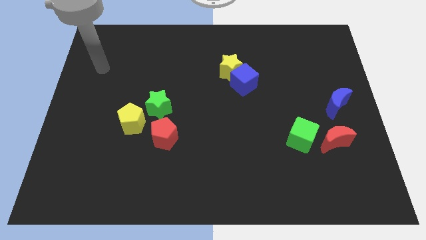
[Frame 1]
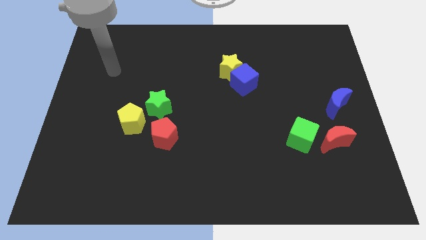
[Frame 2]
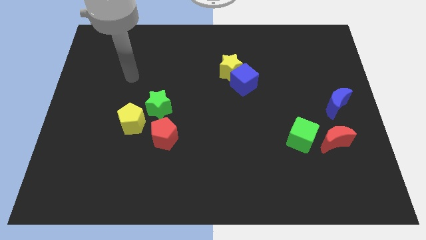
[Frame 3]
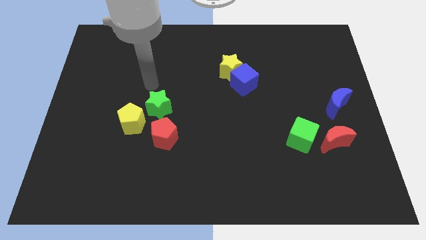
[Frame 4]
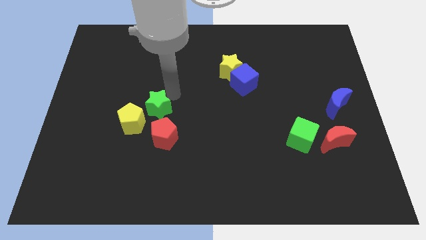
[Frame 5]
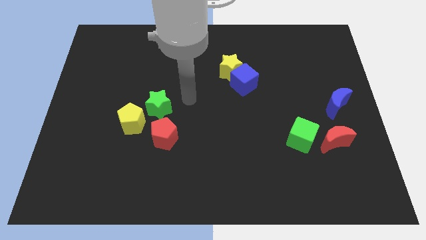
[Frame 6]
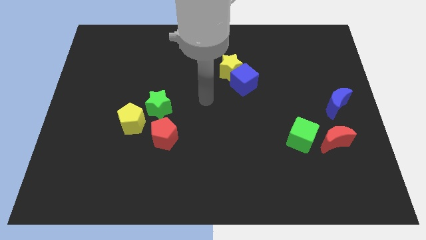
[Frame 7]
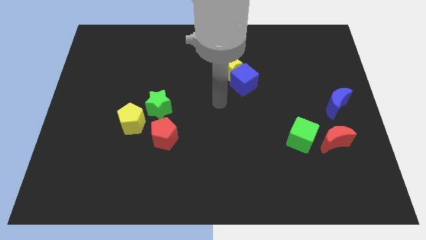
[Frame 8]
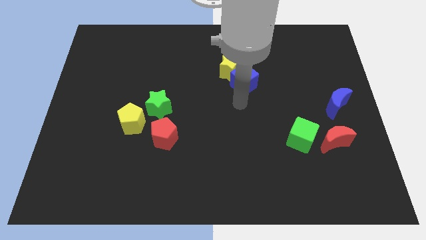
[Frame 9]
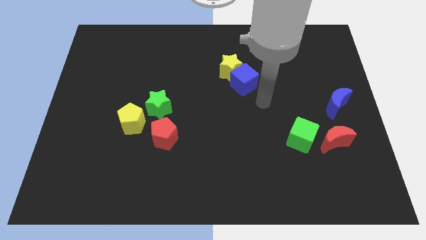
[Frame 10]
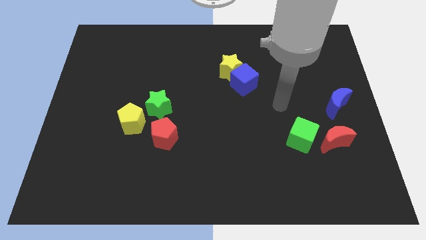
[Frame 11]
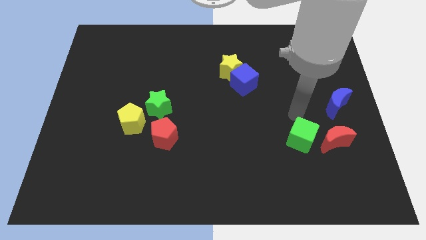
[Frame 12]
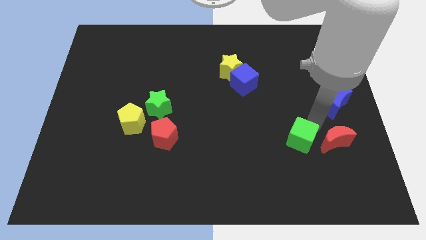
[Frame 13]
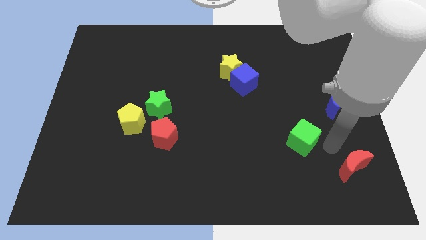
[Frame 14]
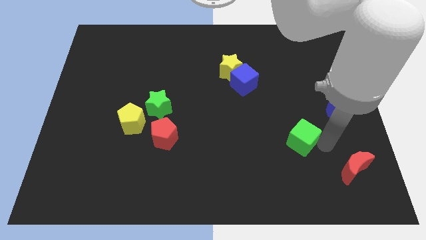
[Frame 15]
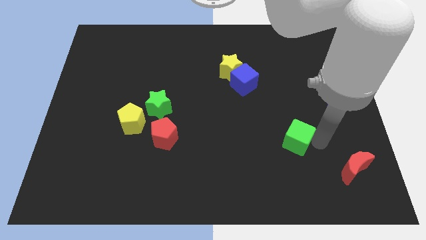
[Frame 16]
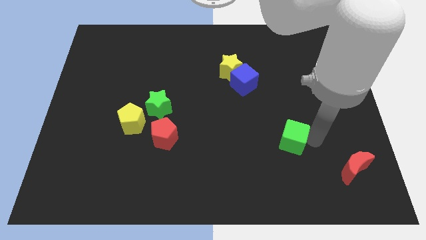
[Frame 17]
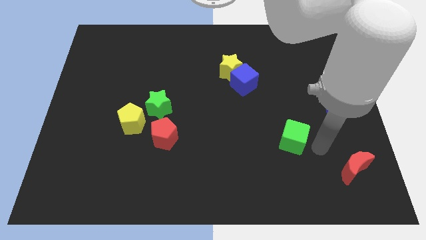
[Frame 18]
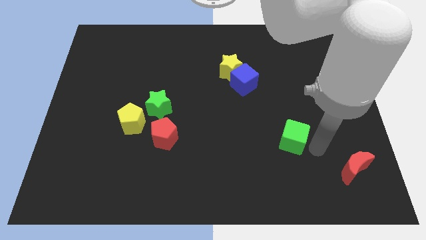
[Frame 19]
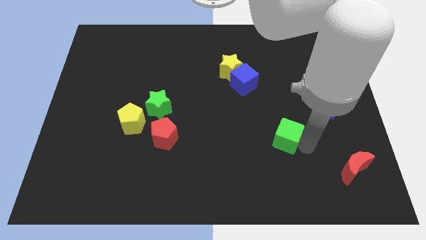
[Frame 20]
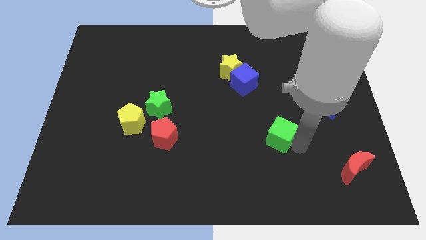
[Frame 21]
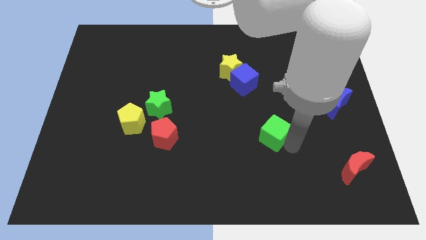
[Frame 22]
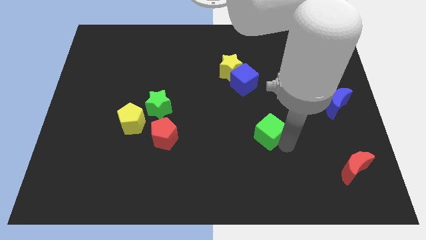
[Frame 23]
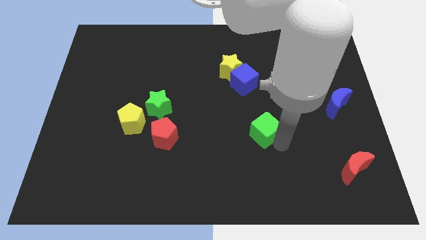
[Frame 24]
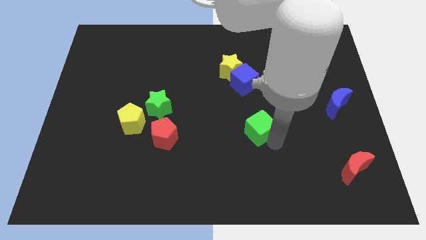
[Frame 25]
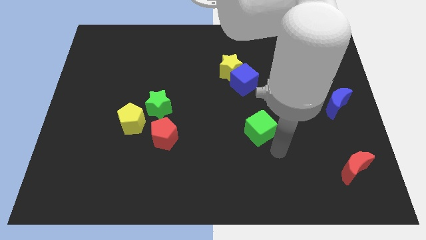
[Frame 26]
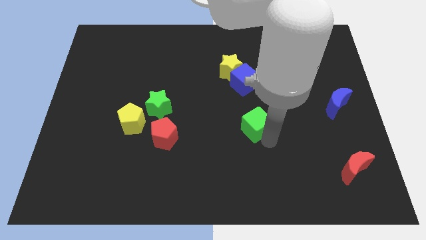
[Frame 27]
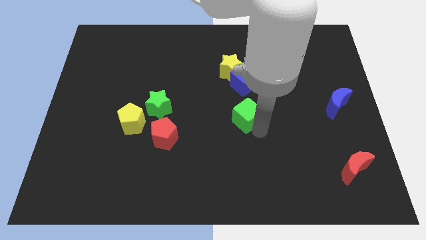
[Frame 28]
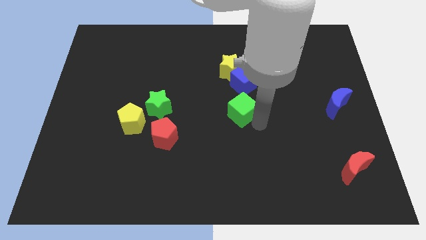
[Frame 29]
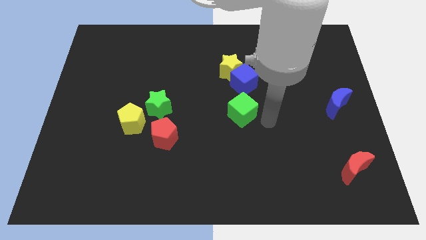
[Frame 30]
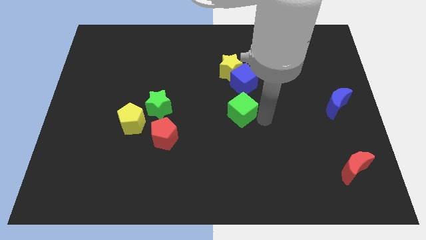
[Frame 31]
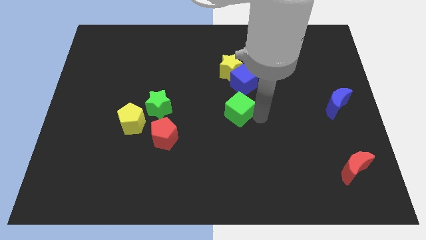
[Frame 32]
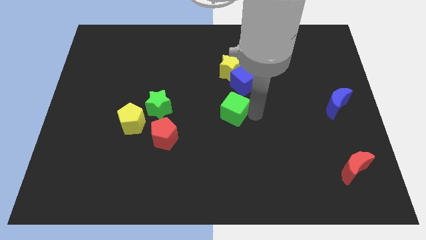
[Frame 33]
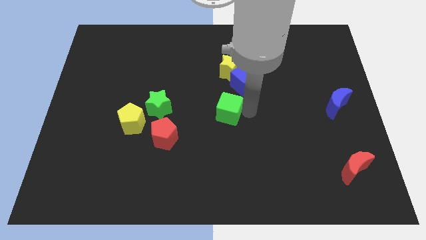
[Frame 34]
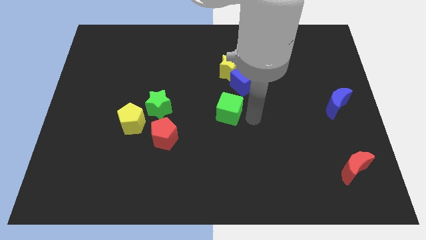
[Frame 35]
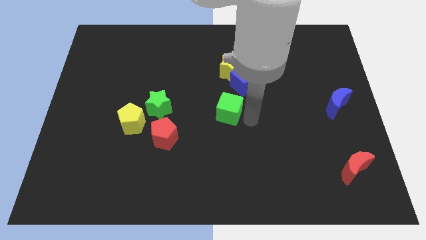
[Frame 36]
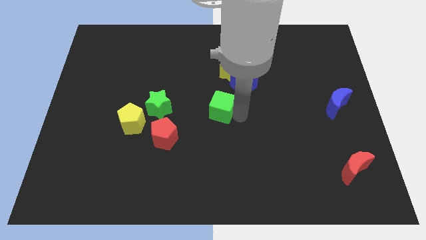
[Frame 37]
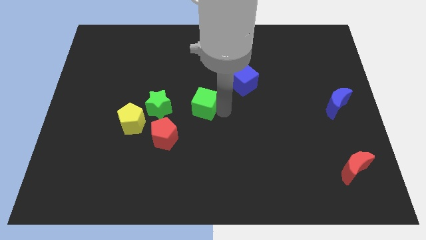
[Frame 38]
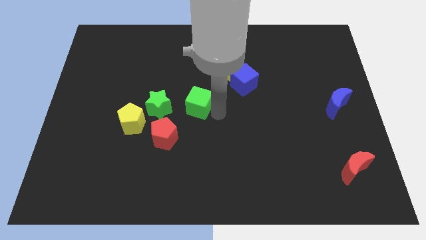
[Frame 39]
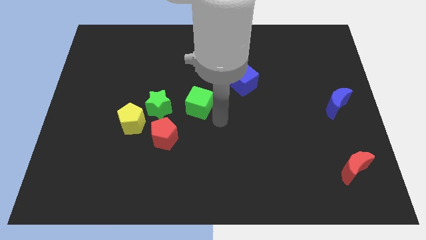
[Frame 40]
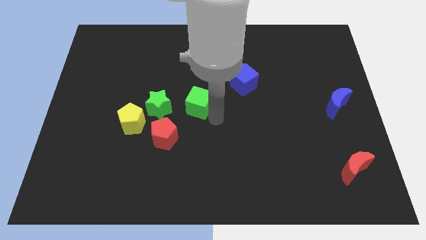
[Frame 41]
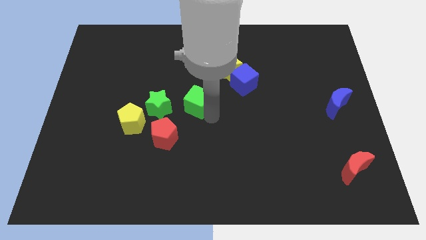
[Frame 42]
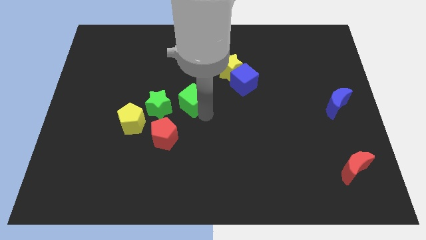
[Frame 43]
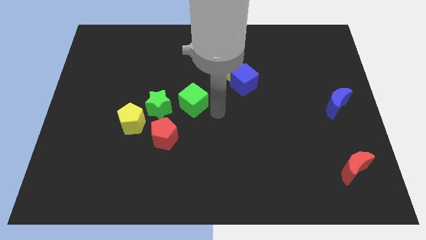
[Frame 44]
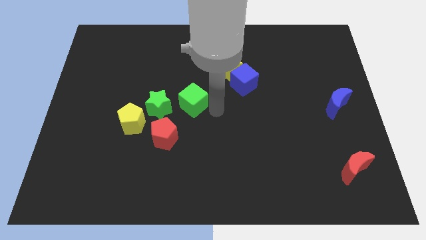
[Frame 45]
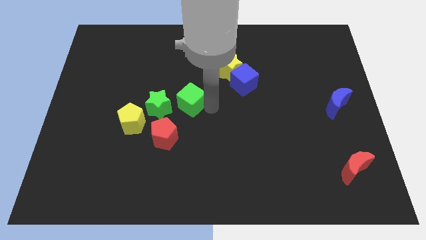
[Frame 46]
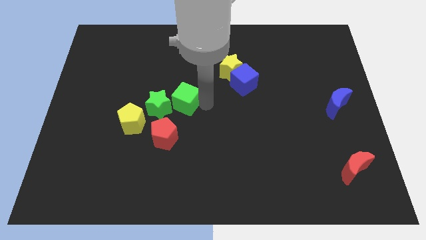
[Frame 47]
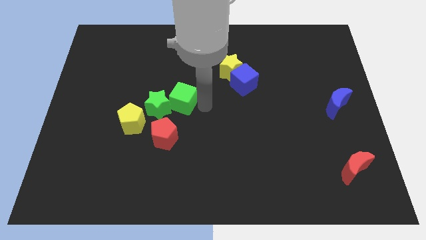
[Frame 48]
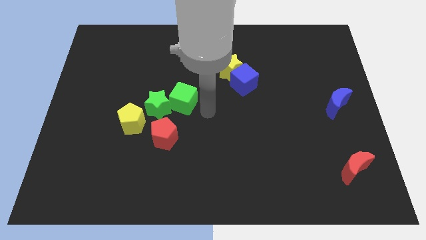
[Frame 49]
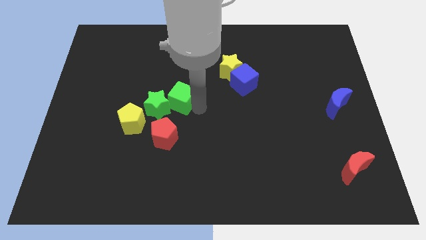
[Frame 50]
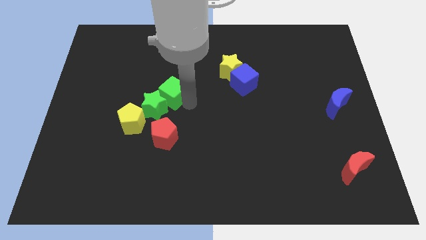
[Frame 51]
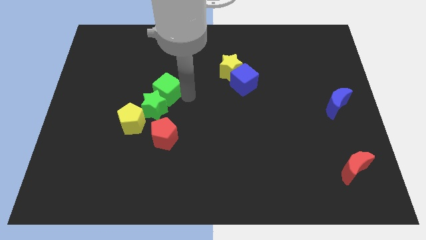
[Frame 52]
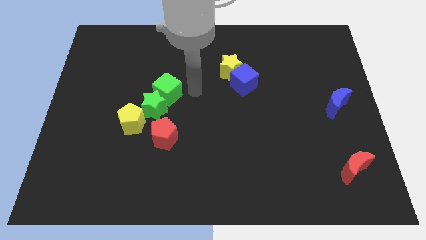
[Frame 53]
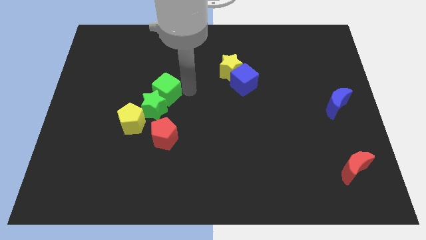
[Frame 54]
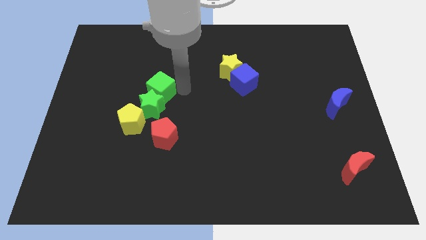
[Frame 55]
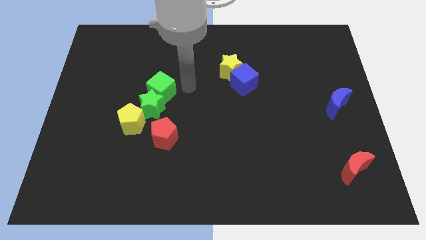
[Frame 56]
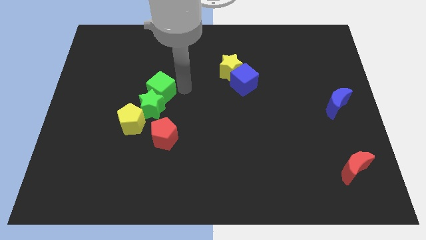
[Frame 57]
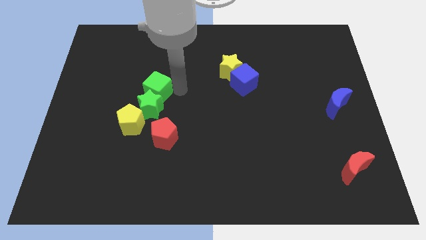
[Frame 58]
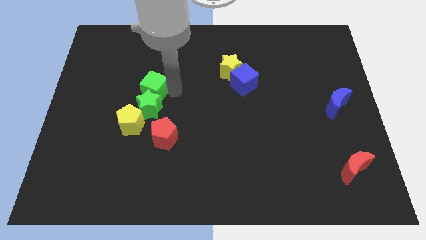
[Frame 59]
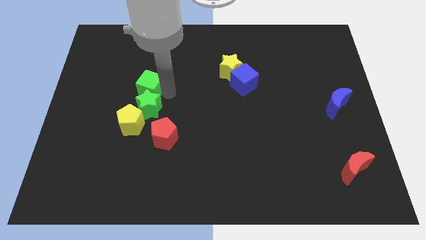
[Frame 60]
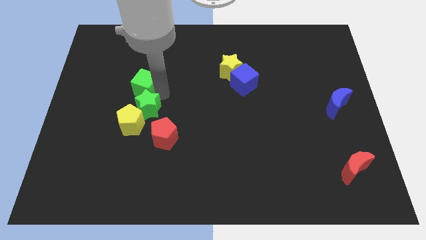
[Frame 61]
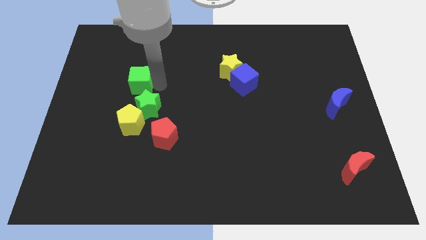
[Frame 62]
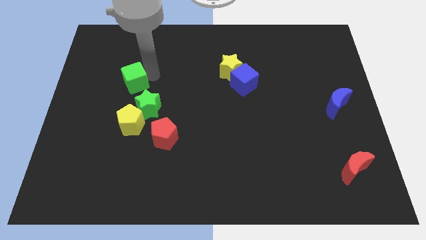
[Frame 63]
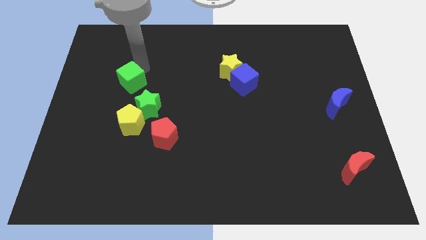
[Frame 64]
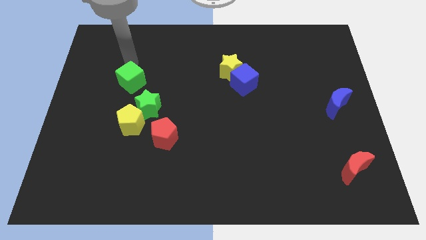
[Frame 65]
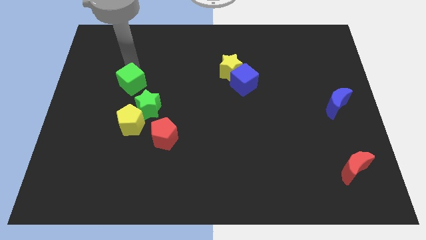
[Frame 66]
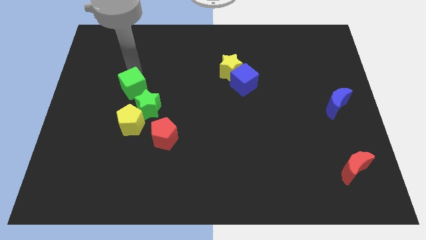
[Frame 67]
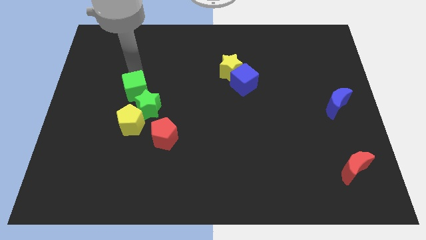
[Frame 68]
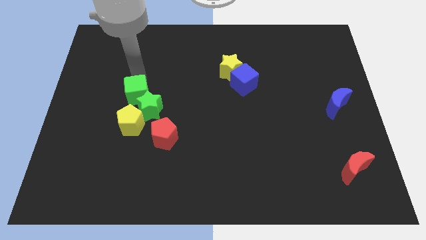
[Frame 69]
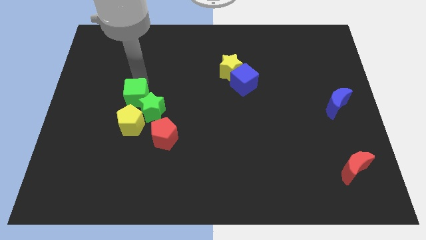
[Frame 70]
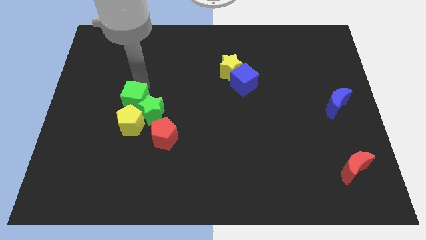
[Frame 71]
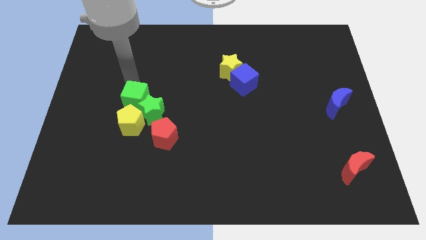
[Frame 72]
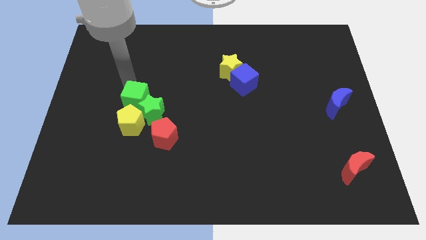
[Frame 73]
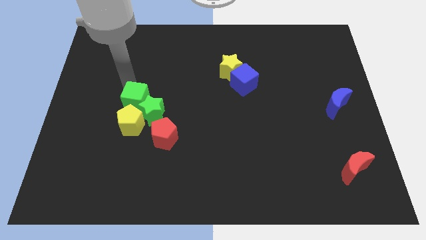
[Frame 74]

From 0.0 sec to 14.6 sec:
put the green cube diagonally up and to the left of the red pentagon

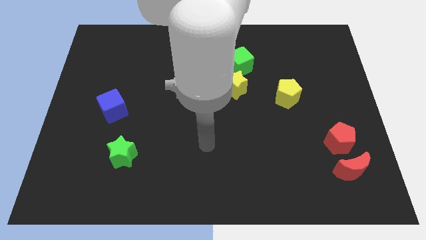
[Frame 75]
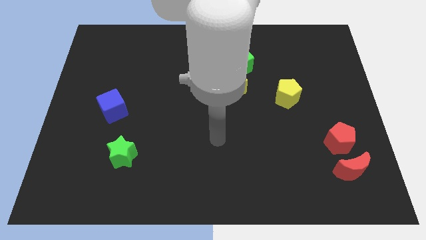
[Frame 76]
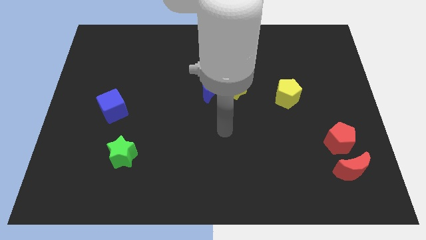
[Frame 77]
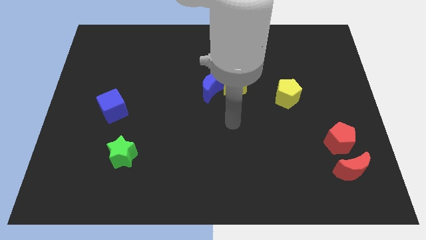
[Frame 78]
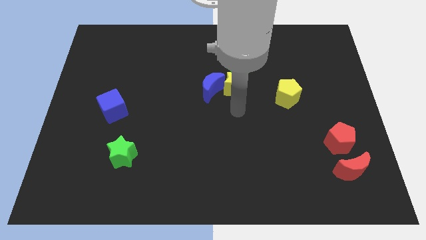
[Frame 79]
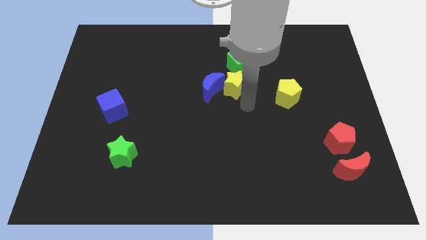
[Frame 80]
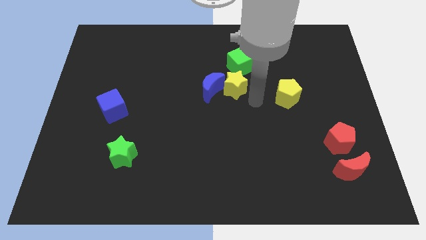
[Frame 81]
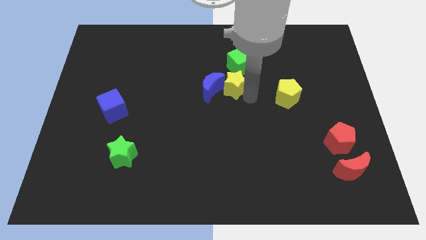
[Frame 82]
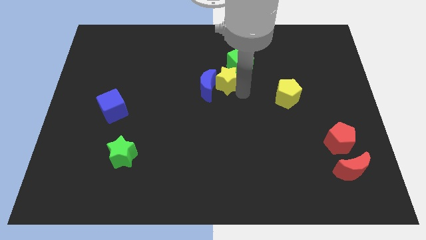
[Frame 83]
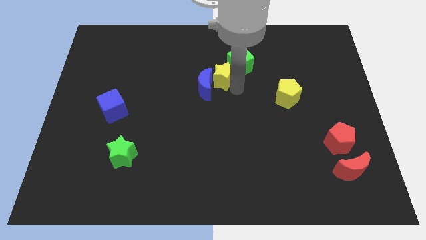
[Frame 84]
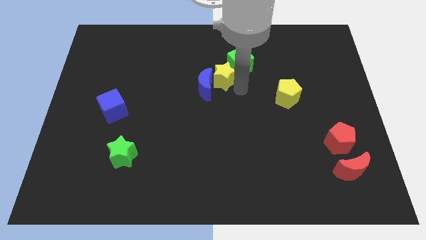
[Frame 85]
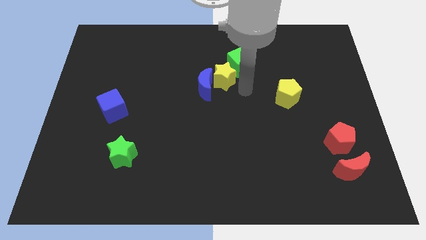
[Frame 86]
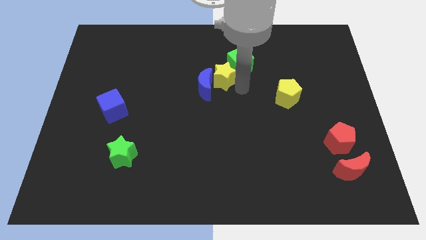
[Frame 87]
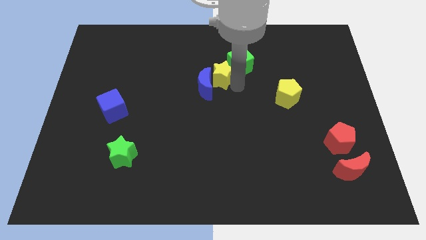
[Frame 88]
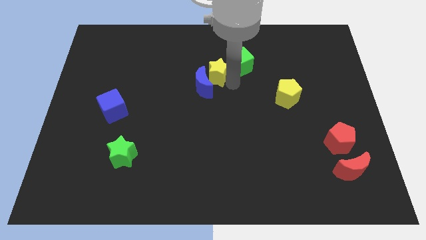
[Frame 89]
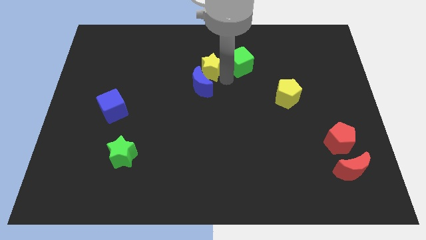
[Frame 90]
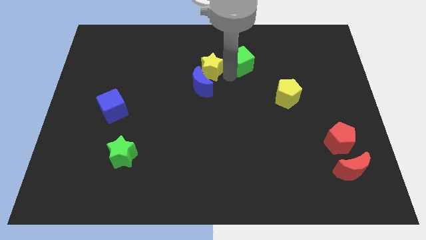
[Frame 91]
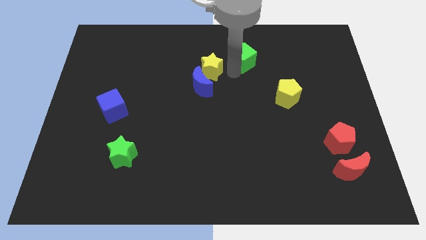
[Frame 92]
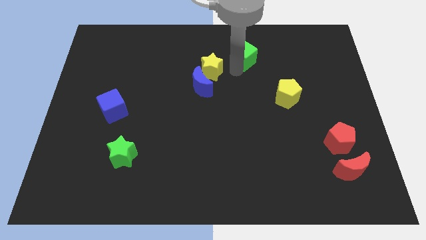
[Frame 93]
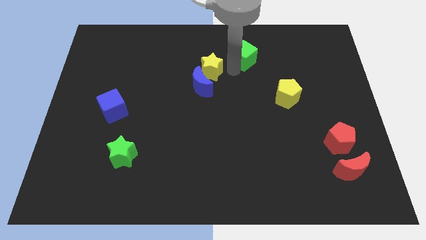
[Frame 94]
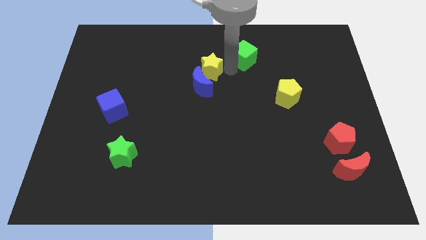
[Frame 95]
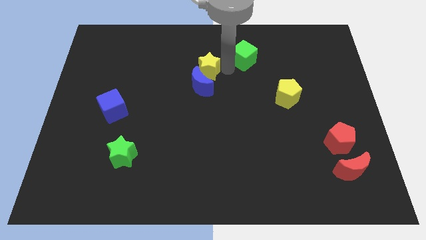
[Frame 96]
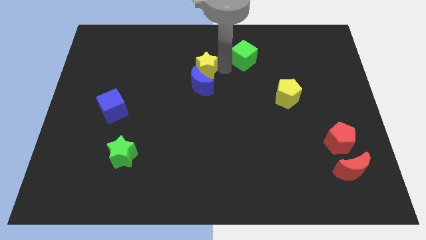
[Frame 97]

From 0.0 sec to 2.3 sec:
put the yellow star to the top left side of the blue moon
